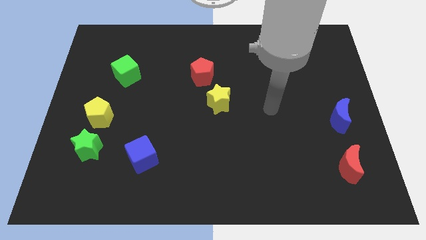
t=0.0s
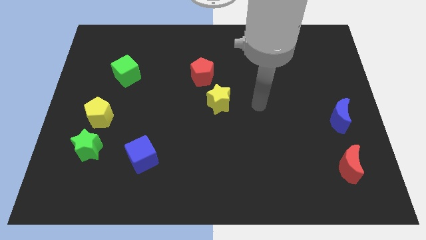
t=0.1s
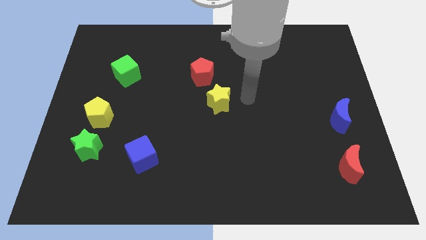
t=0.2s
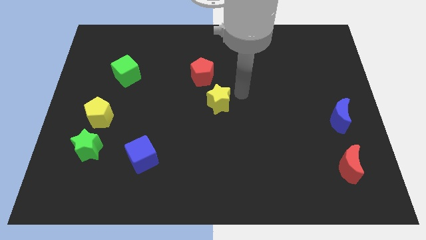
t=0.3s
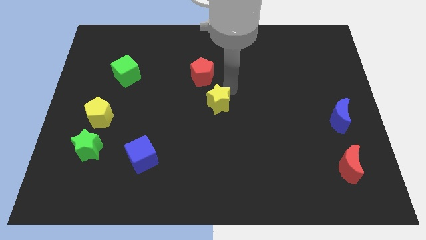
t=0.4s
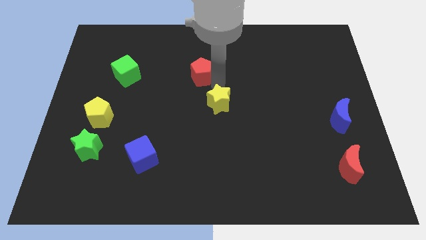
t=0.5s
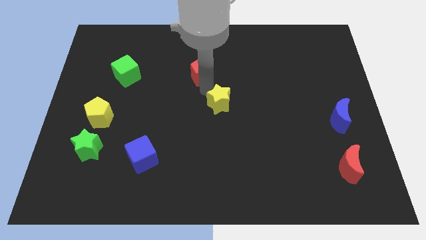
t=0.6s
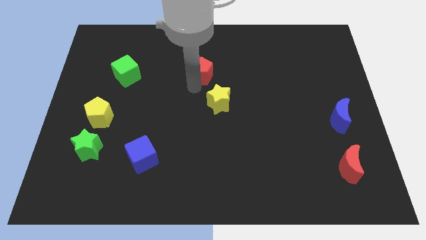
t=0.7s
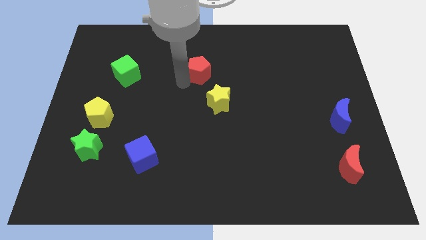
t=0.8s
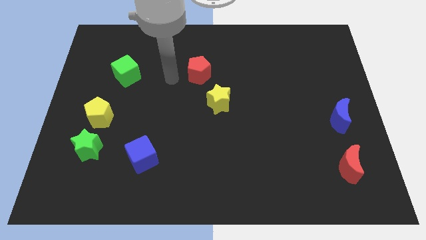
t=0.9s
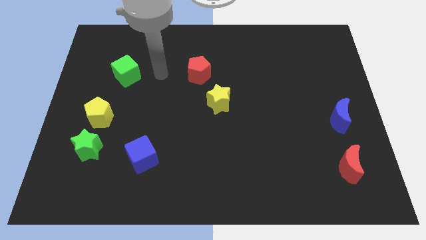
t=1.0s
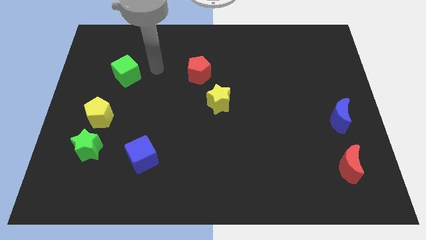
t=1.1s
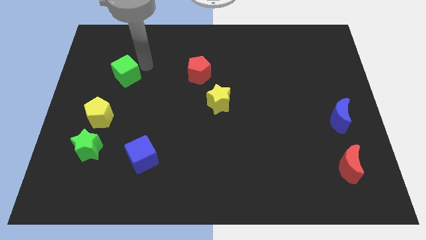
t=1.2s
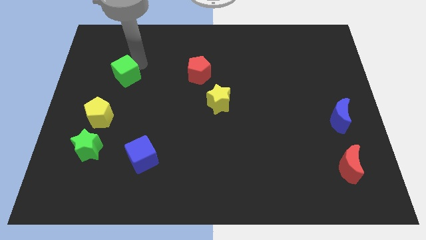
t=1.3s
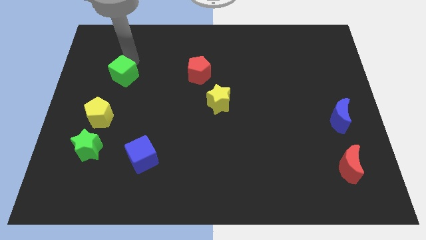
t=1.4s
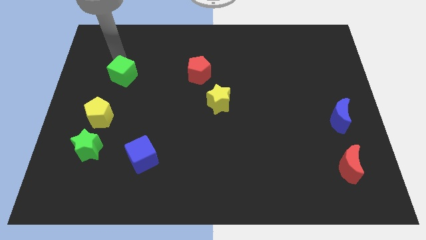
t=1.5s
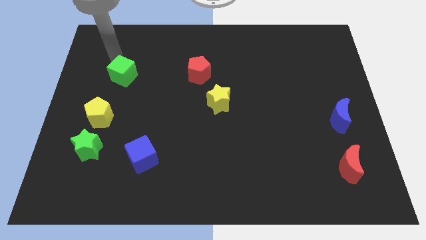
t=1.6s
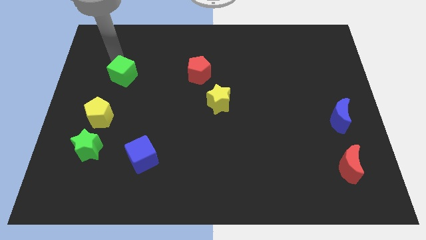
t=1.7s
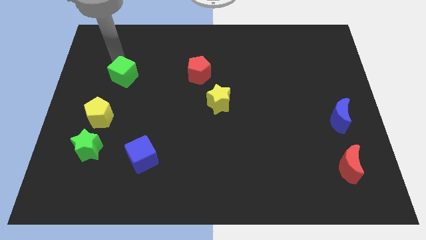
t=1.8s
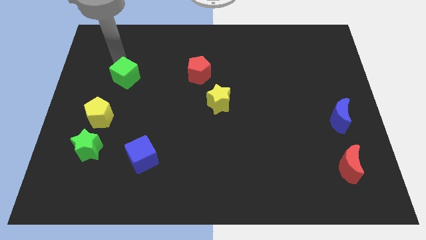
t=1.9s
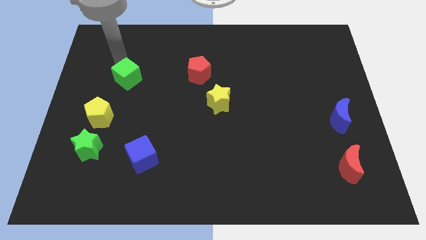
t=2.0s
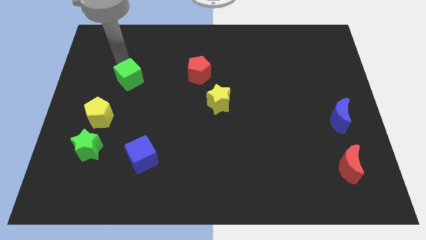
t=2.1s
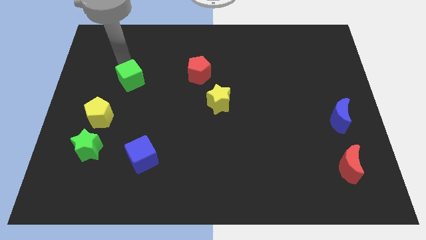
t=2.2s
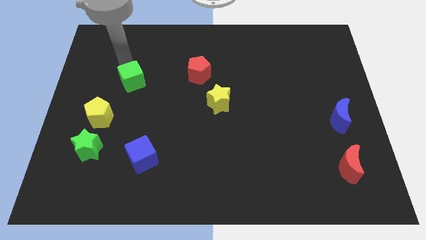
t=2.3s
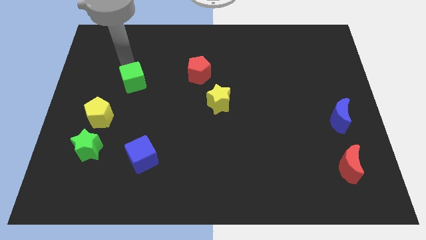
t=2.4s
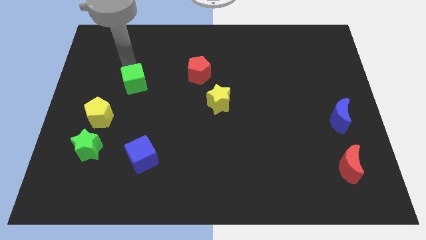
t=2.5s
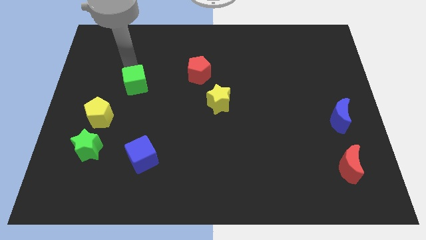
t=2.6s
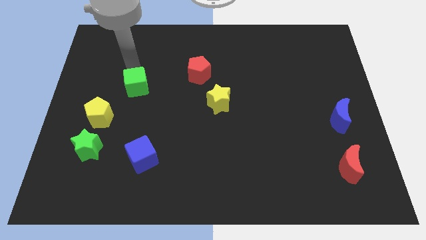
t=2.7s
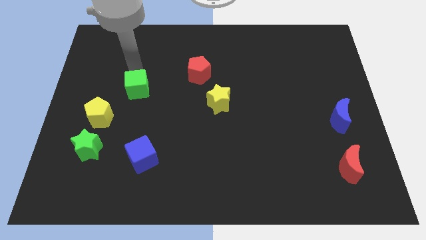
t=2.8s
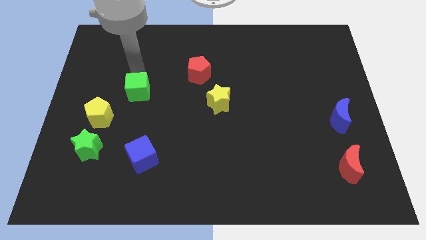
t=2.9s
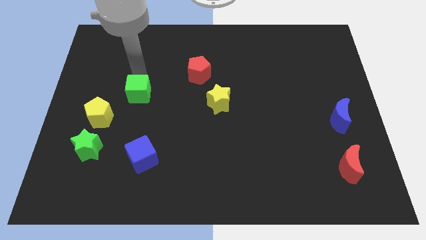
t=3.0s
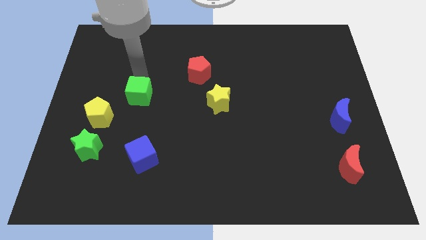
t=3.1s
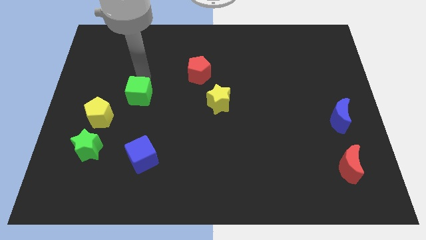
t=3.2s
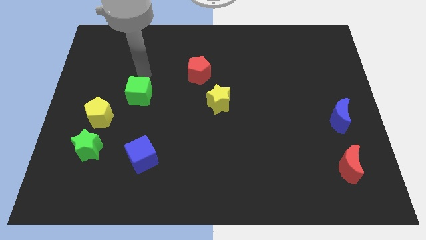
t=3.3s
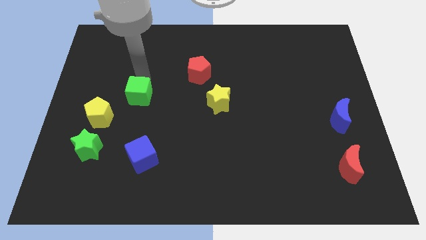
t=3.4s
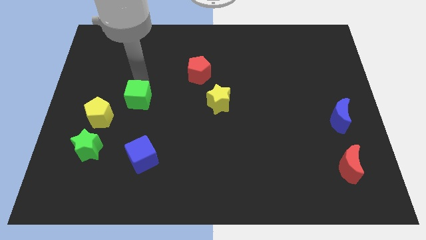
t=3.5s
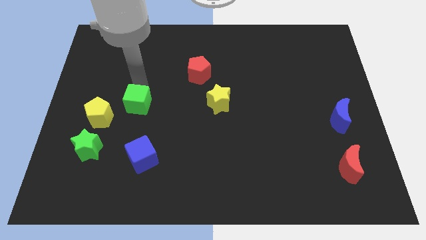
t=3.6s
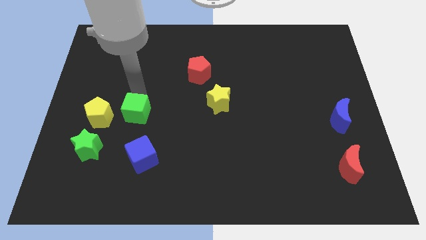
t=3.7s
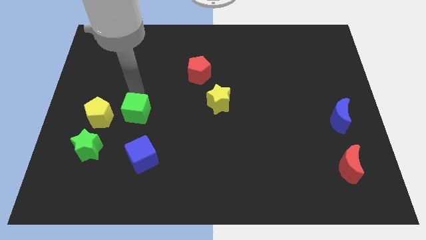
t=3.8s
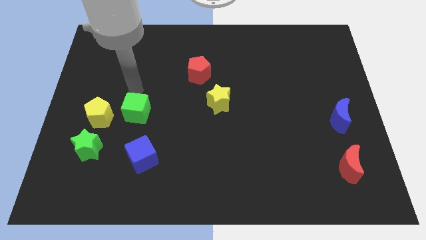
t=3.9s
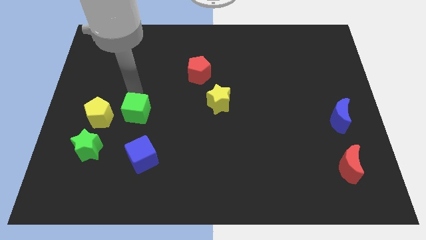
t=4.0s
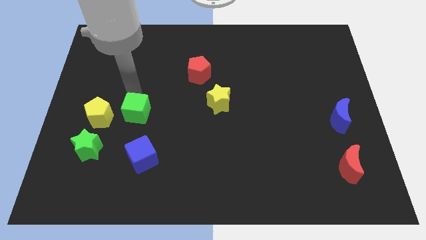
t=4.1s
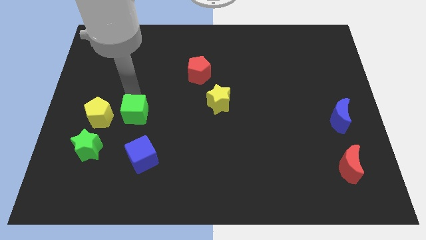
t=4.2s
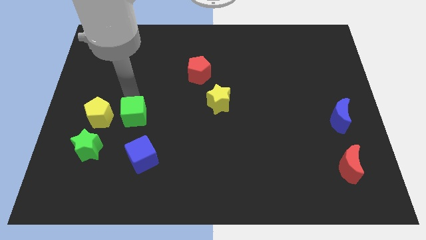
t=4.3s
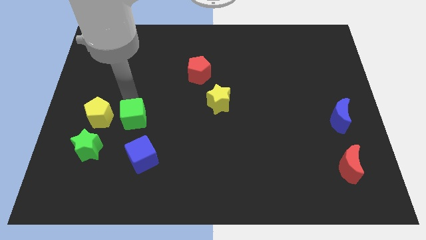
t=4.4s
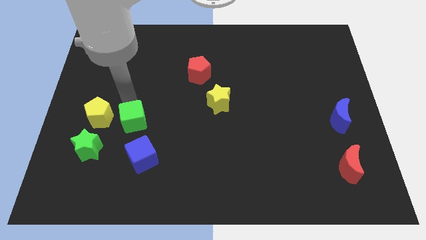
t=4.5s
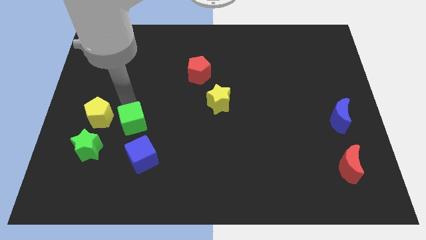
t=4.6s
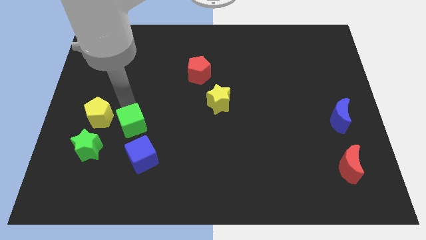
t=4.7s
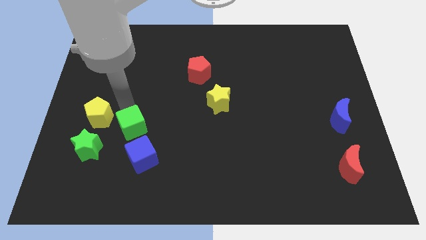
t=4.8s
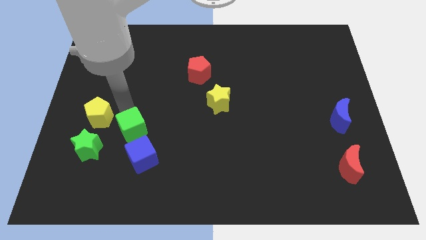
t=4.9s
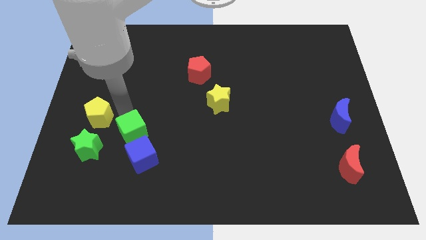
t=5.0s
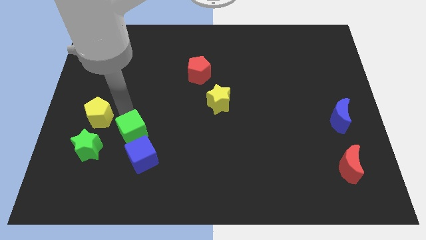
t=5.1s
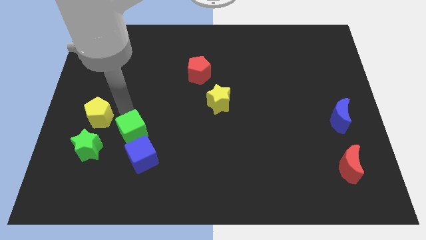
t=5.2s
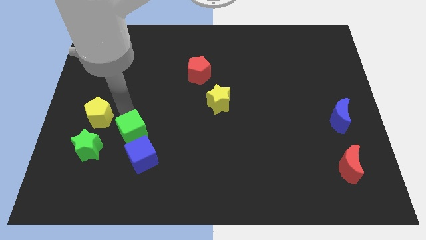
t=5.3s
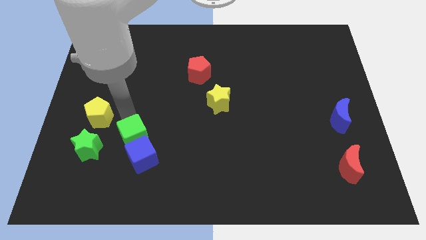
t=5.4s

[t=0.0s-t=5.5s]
slide the green cube close to the blue cube
